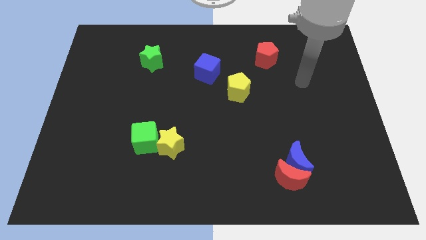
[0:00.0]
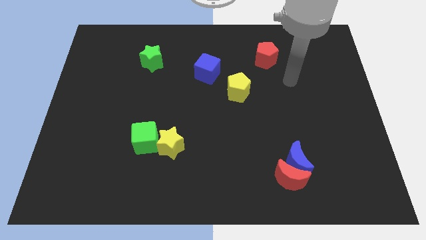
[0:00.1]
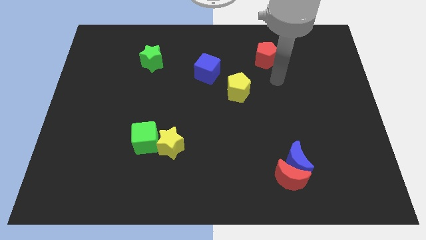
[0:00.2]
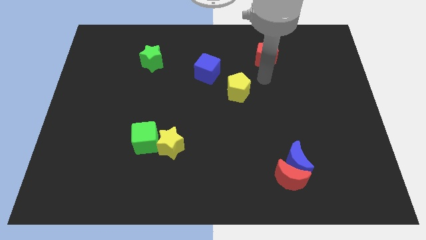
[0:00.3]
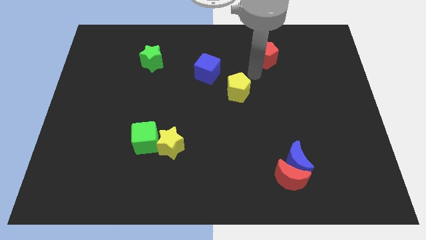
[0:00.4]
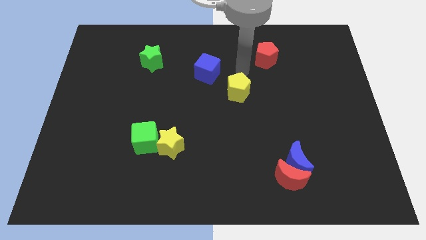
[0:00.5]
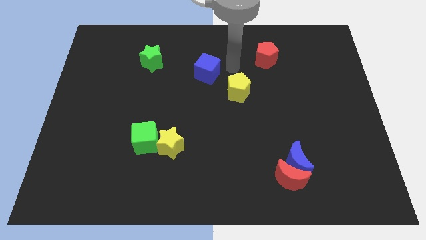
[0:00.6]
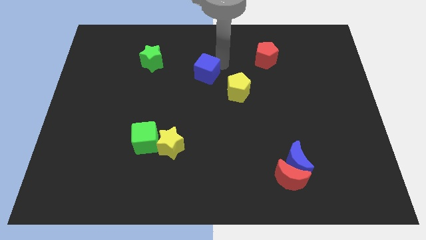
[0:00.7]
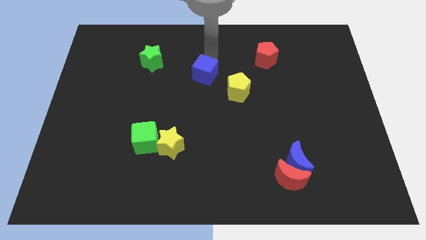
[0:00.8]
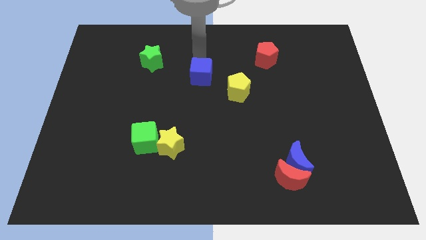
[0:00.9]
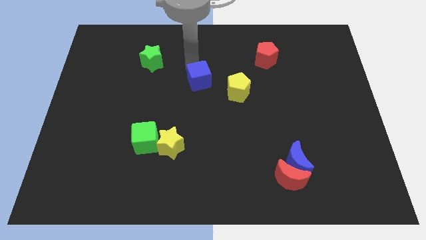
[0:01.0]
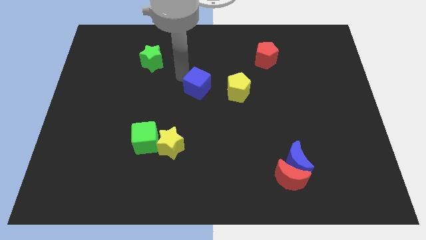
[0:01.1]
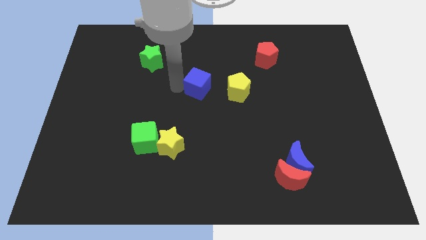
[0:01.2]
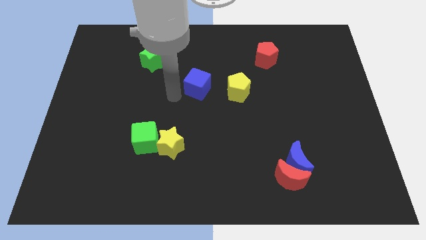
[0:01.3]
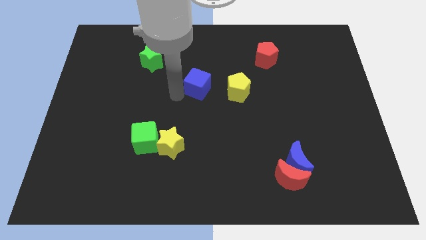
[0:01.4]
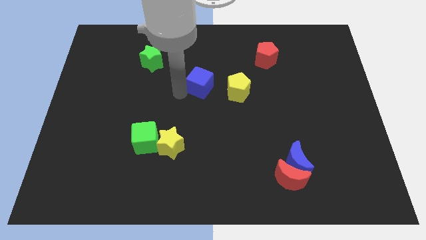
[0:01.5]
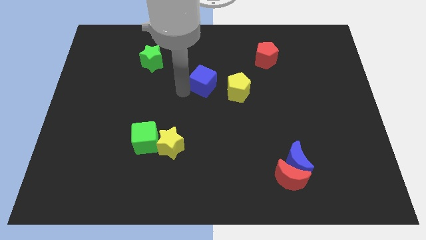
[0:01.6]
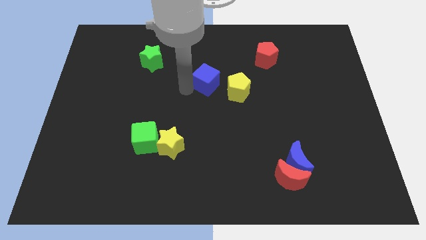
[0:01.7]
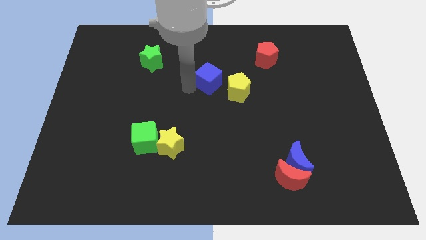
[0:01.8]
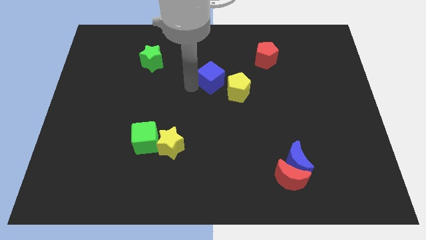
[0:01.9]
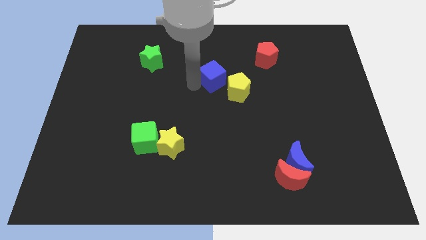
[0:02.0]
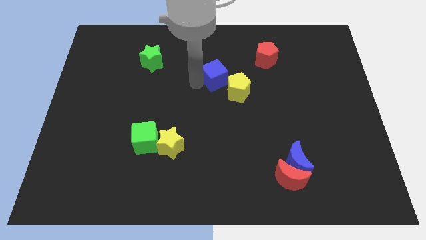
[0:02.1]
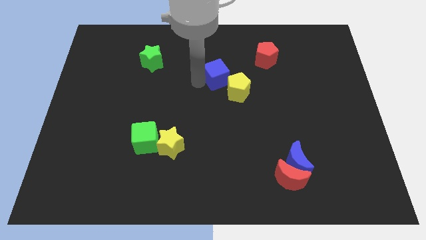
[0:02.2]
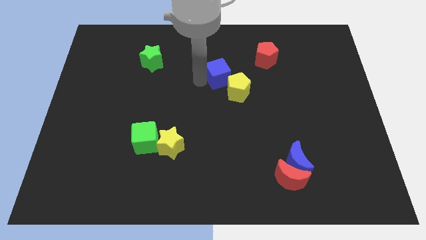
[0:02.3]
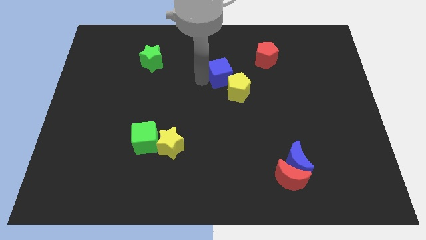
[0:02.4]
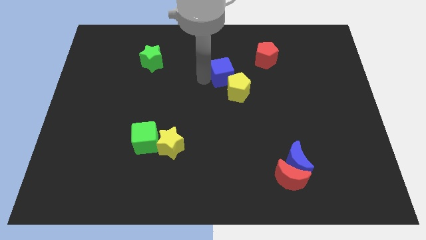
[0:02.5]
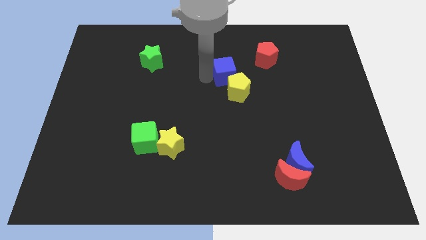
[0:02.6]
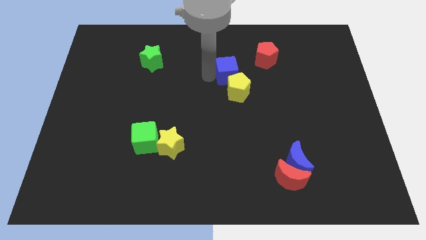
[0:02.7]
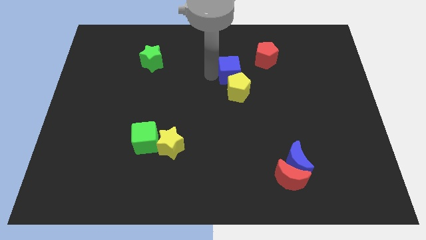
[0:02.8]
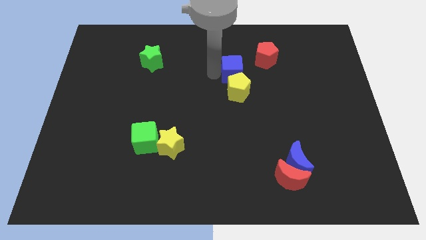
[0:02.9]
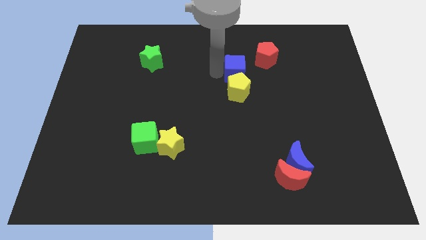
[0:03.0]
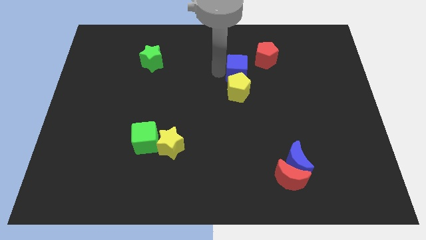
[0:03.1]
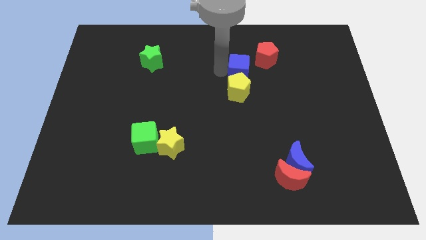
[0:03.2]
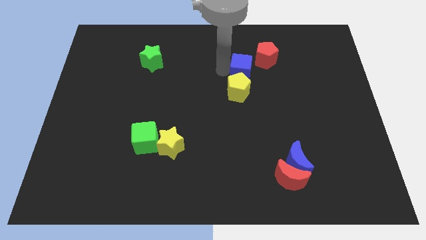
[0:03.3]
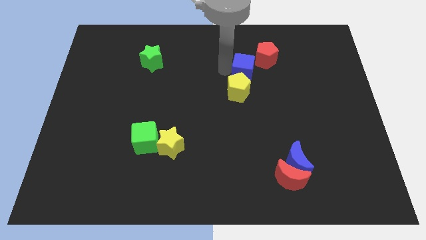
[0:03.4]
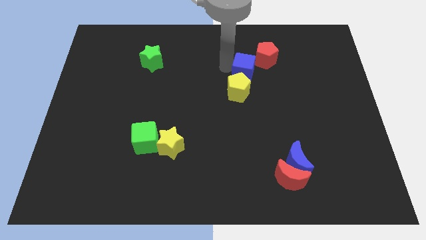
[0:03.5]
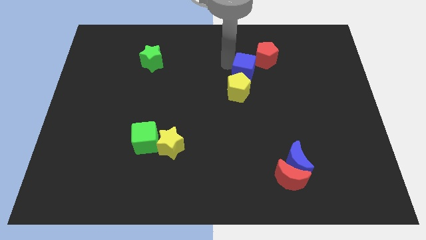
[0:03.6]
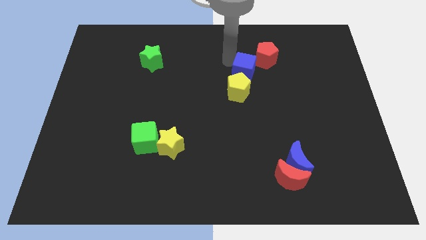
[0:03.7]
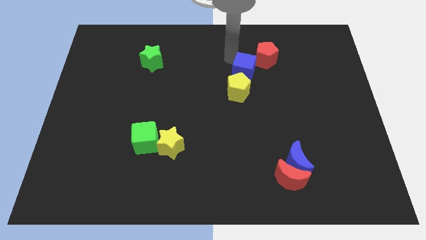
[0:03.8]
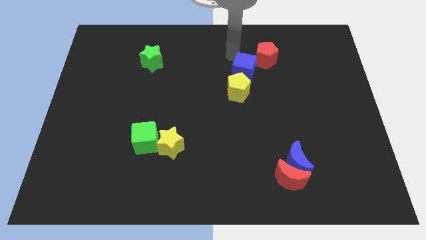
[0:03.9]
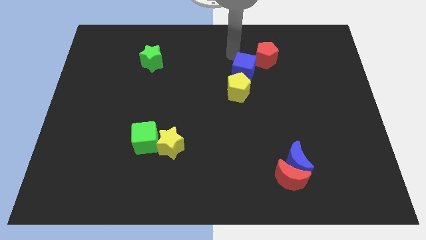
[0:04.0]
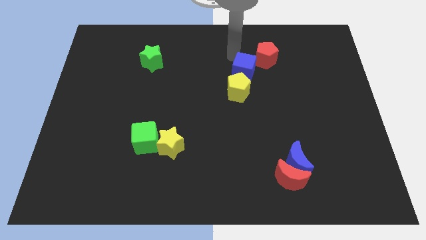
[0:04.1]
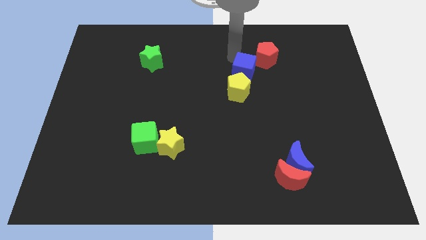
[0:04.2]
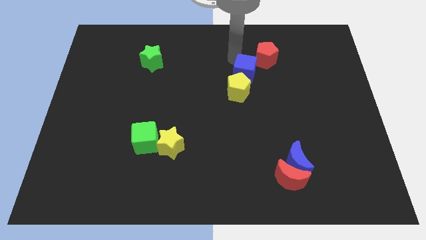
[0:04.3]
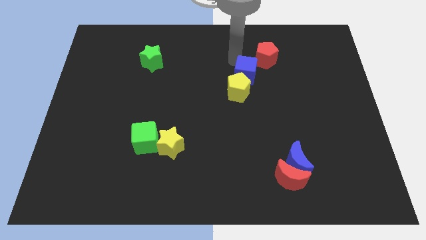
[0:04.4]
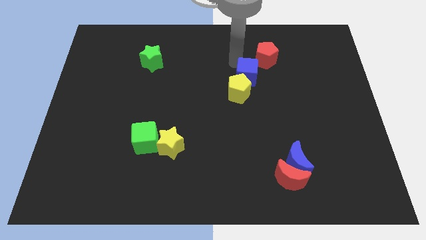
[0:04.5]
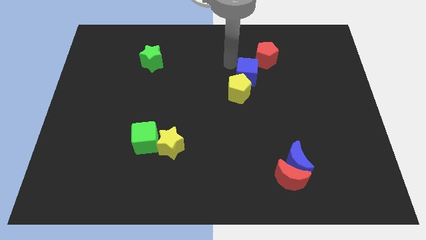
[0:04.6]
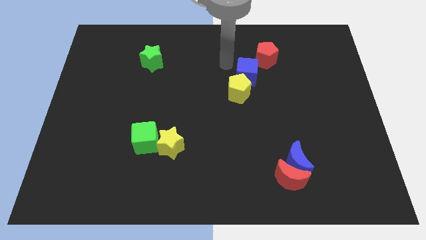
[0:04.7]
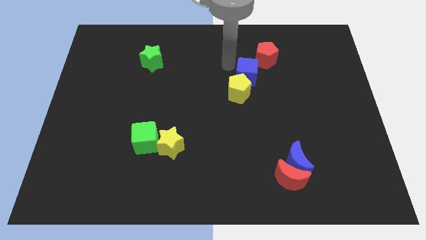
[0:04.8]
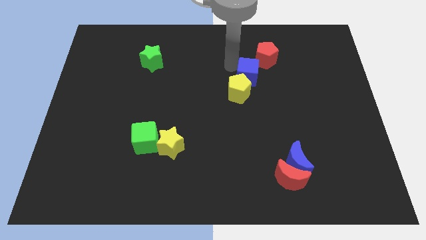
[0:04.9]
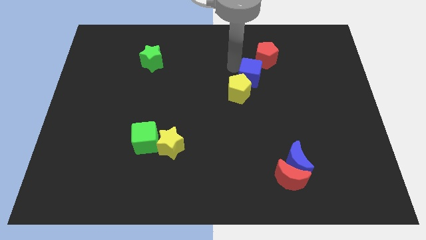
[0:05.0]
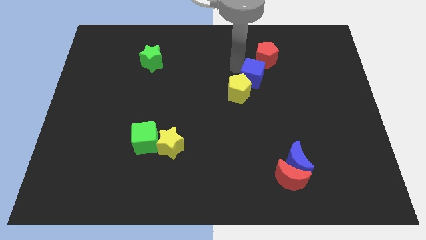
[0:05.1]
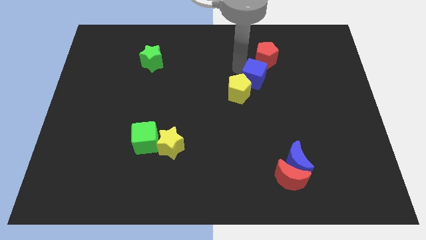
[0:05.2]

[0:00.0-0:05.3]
put the blue cube just right of the yellow pentagon

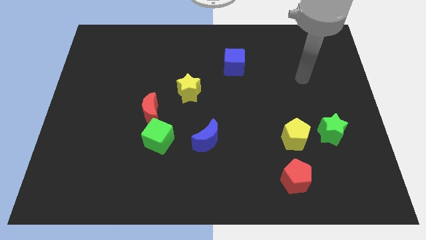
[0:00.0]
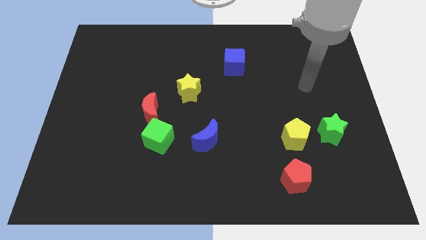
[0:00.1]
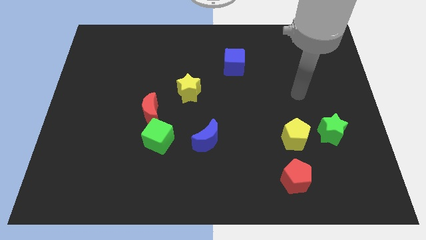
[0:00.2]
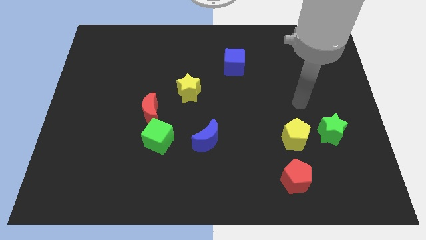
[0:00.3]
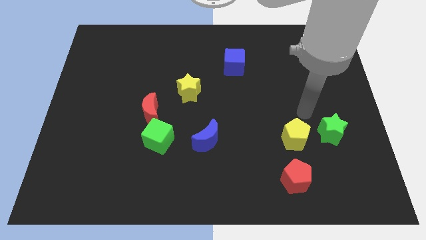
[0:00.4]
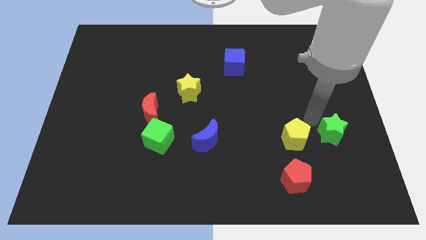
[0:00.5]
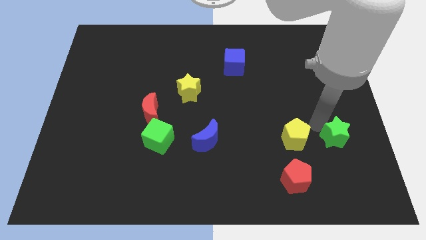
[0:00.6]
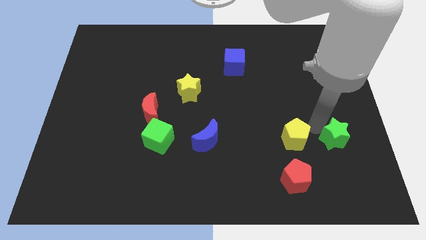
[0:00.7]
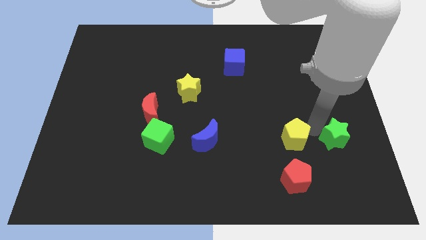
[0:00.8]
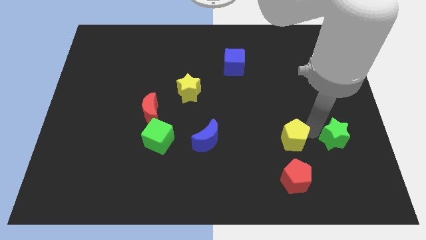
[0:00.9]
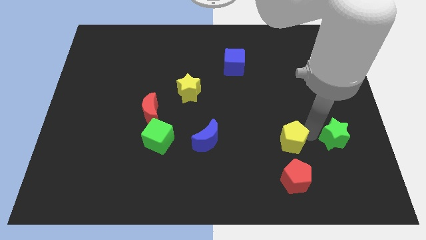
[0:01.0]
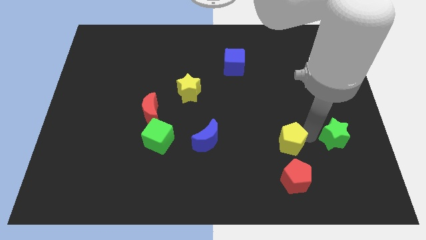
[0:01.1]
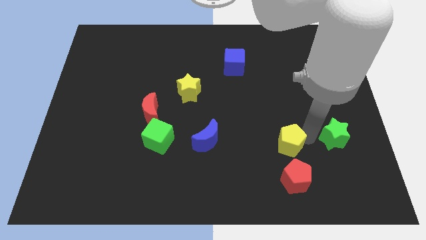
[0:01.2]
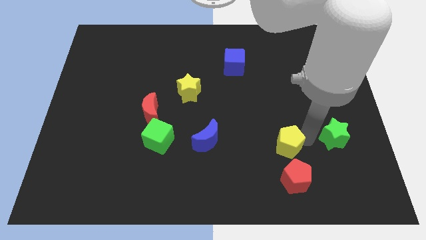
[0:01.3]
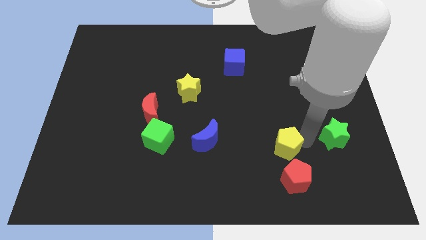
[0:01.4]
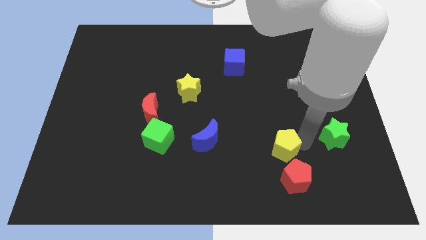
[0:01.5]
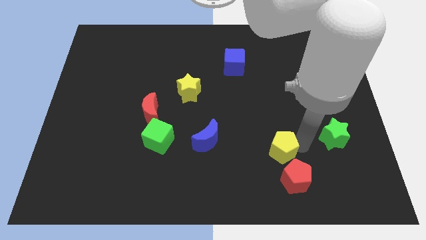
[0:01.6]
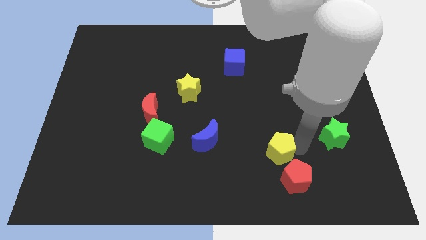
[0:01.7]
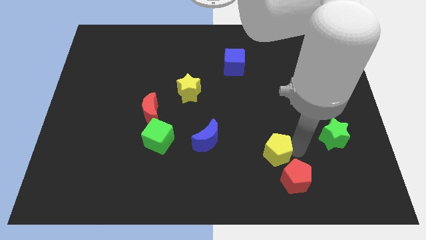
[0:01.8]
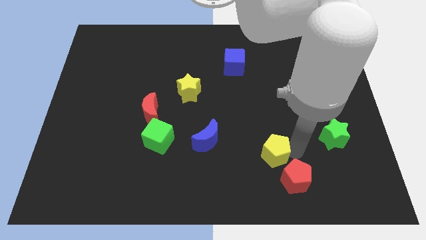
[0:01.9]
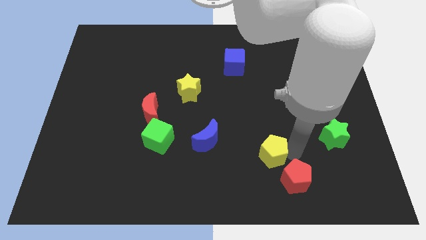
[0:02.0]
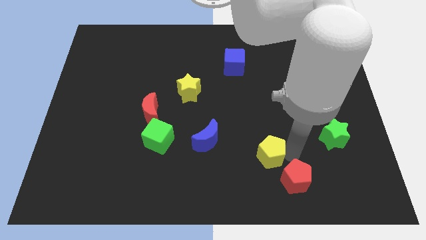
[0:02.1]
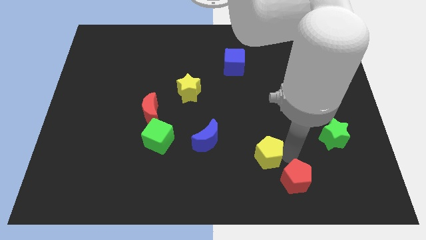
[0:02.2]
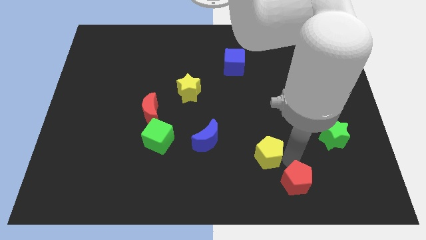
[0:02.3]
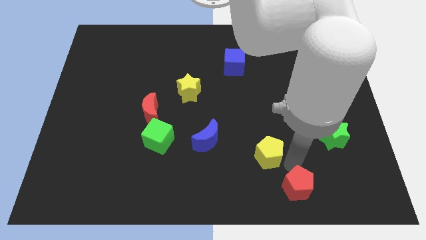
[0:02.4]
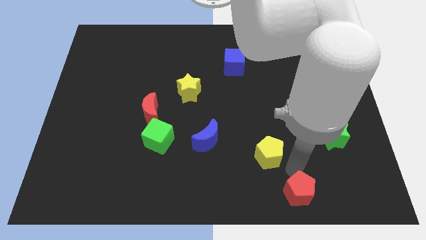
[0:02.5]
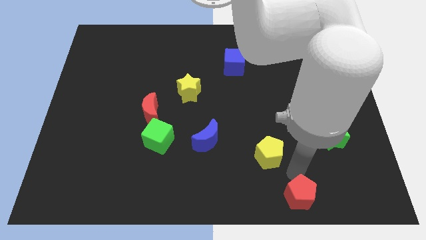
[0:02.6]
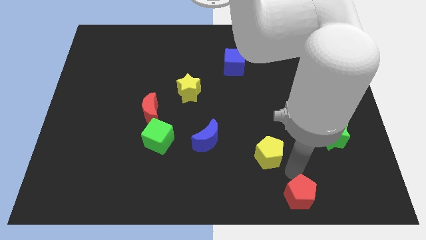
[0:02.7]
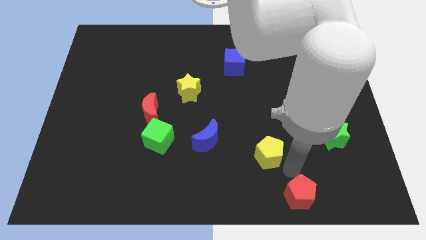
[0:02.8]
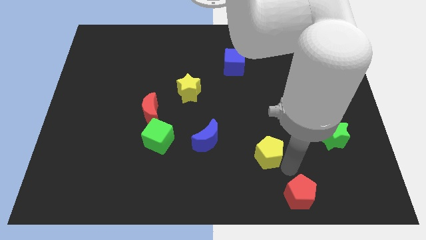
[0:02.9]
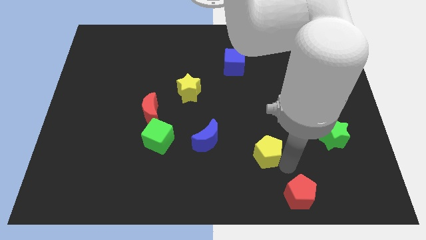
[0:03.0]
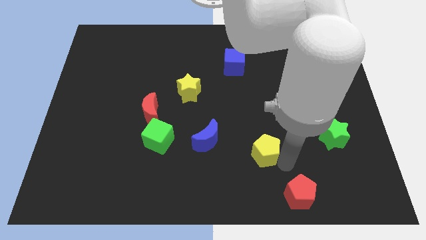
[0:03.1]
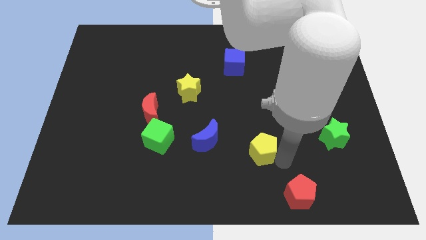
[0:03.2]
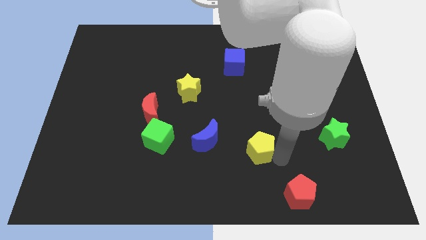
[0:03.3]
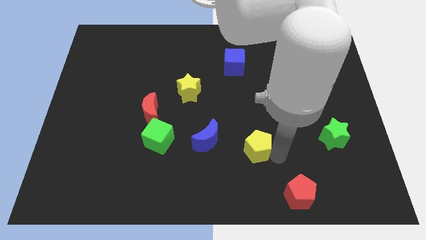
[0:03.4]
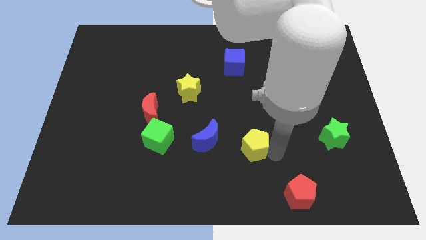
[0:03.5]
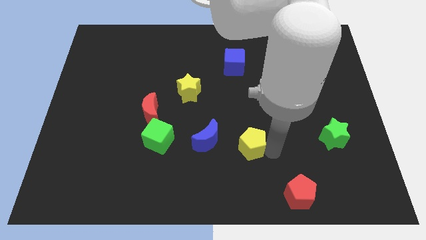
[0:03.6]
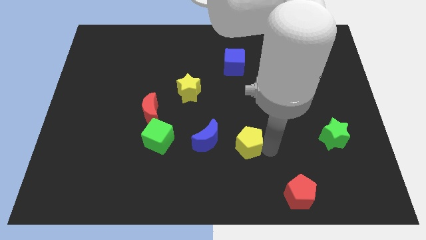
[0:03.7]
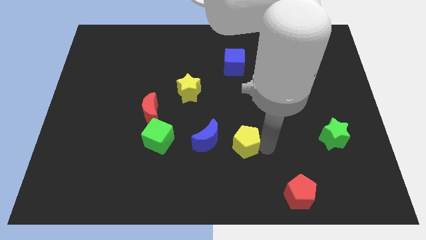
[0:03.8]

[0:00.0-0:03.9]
slide the yellow pentagon to the bottom right of the blue moon
